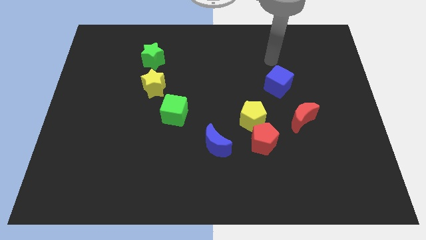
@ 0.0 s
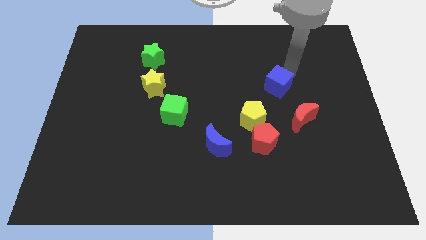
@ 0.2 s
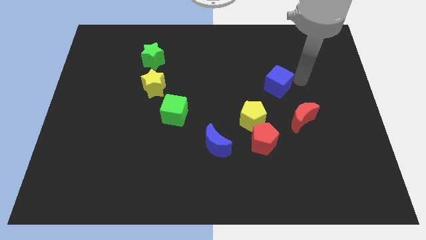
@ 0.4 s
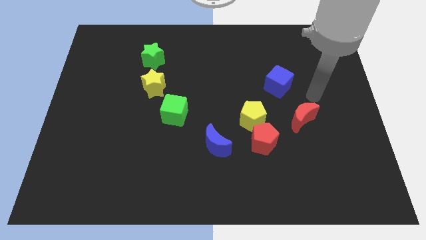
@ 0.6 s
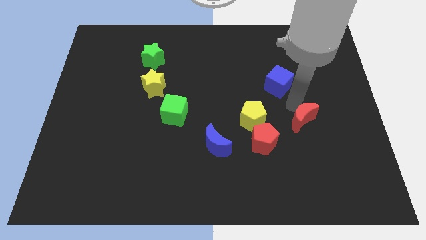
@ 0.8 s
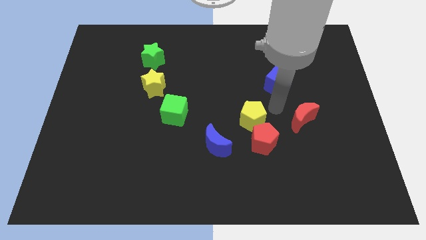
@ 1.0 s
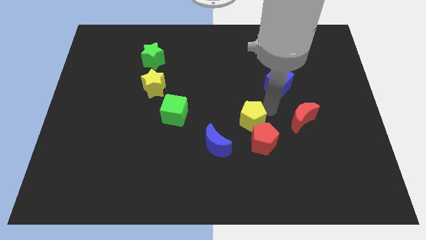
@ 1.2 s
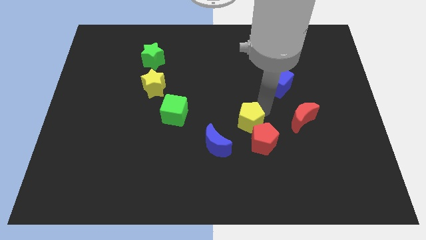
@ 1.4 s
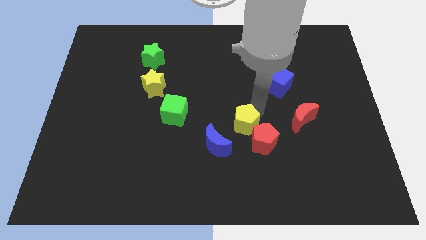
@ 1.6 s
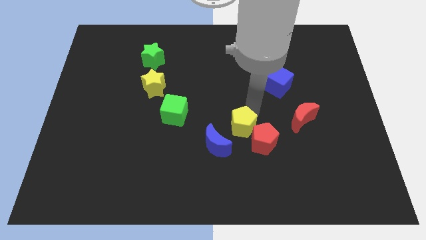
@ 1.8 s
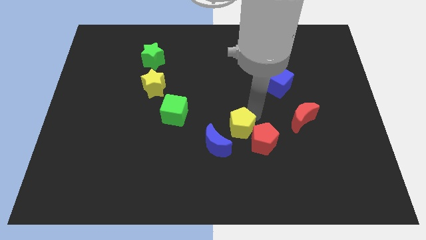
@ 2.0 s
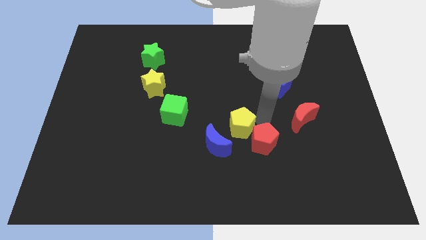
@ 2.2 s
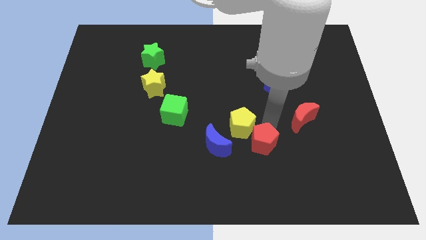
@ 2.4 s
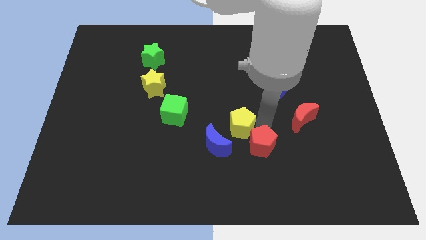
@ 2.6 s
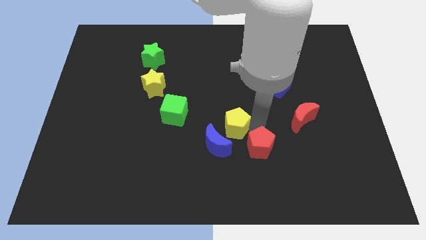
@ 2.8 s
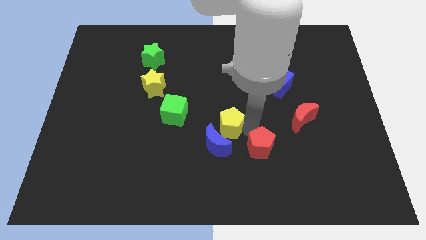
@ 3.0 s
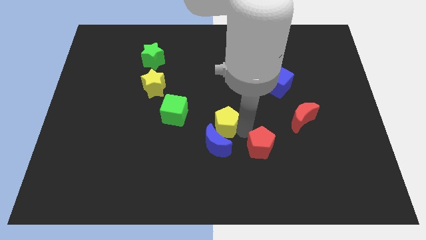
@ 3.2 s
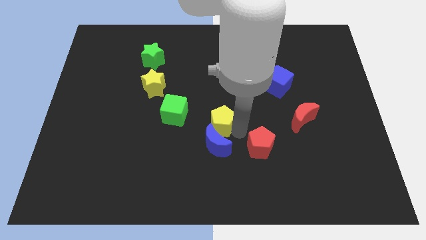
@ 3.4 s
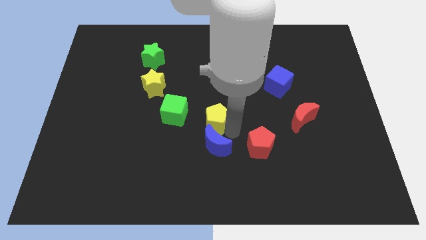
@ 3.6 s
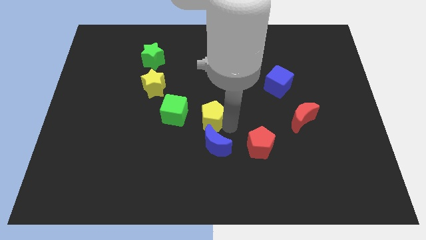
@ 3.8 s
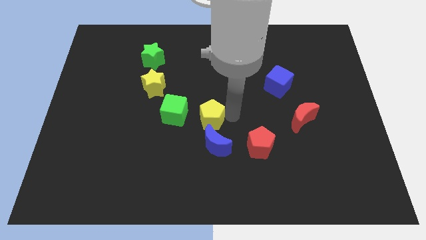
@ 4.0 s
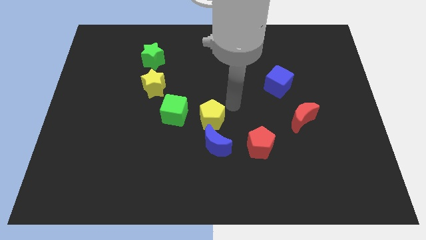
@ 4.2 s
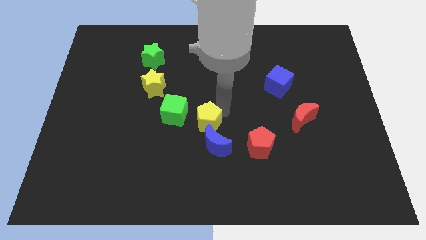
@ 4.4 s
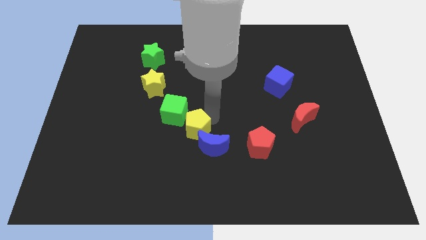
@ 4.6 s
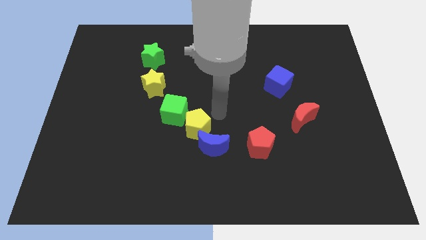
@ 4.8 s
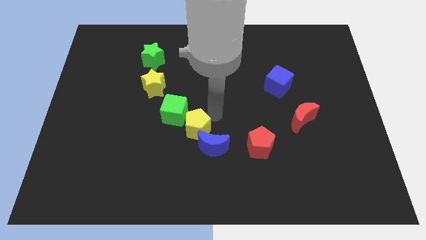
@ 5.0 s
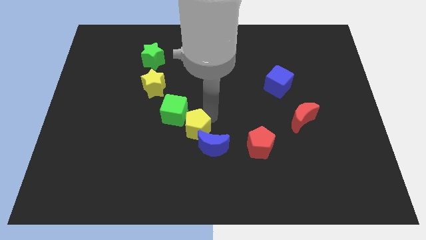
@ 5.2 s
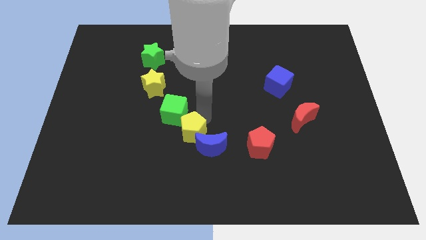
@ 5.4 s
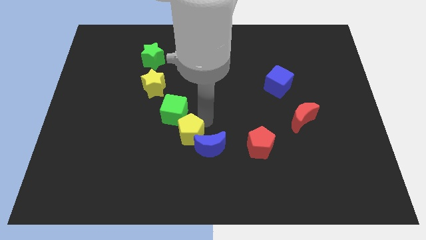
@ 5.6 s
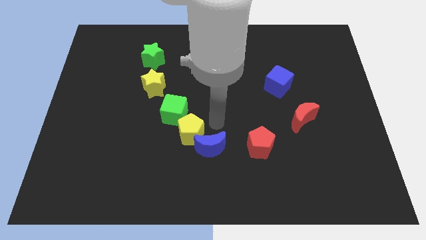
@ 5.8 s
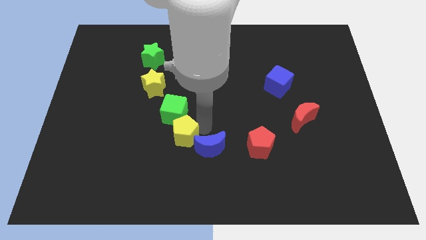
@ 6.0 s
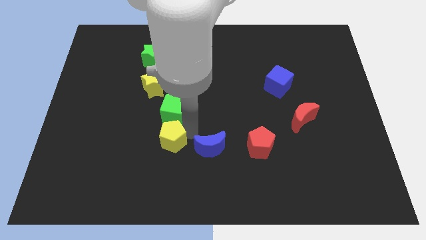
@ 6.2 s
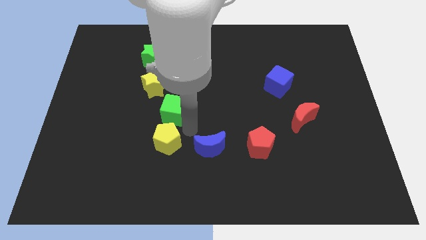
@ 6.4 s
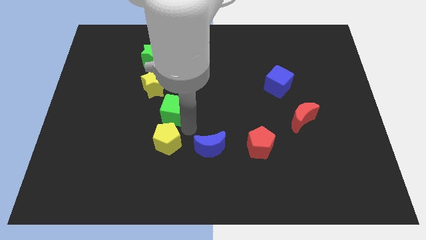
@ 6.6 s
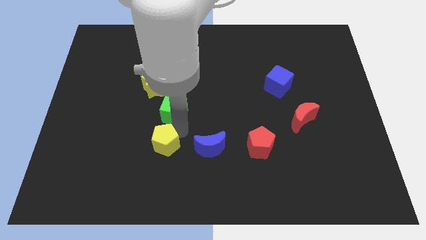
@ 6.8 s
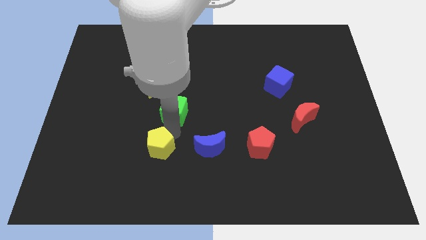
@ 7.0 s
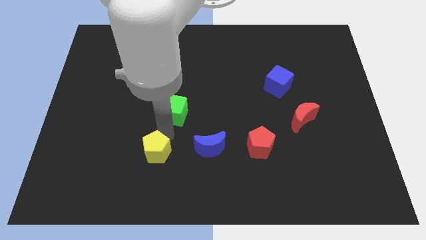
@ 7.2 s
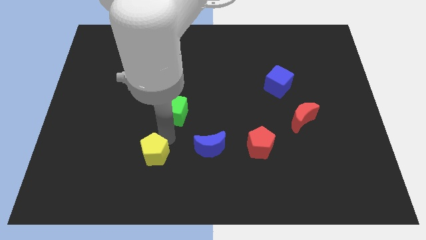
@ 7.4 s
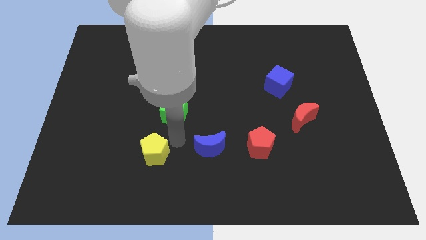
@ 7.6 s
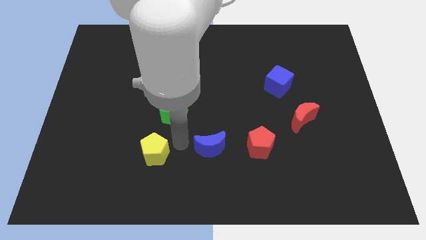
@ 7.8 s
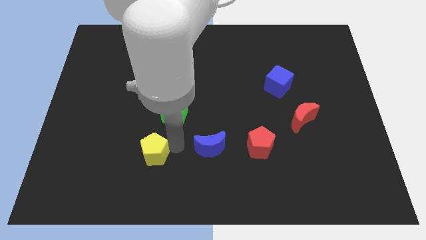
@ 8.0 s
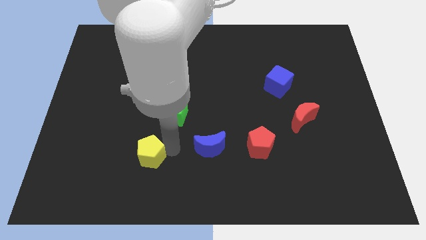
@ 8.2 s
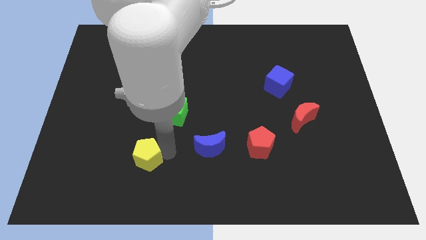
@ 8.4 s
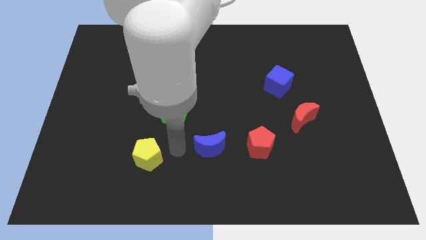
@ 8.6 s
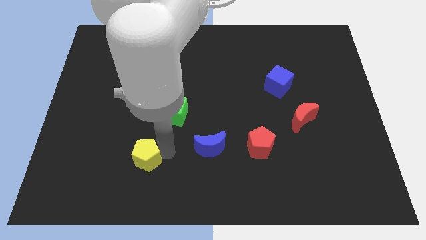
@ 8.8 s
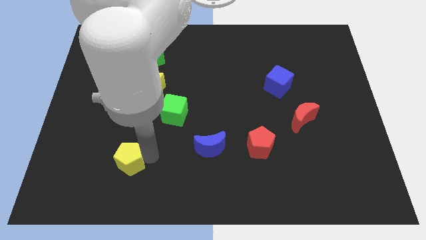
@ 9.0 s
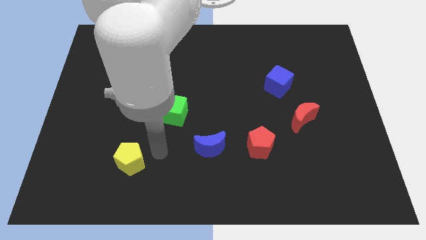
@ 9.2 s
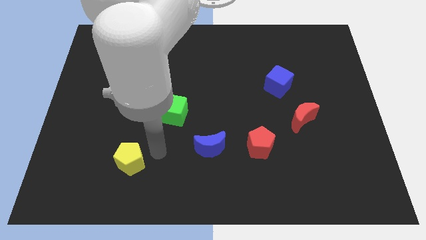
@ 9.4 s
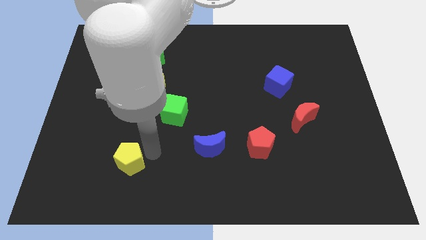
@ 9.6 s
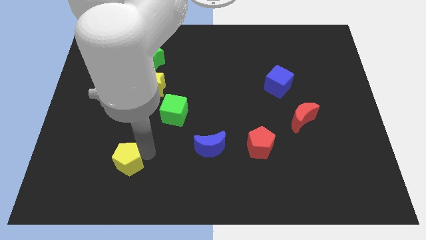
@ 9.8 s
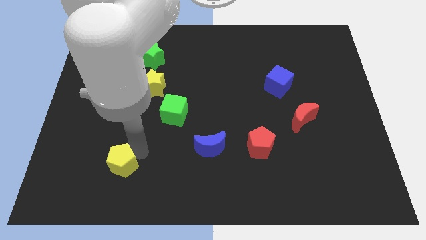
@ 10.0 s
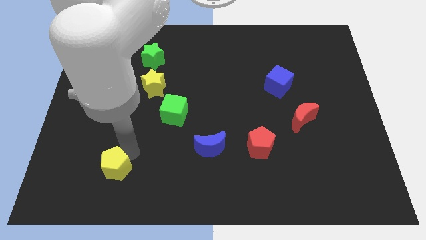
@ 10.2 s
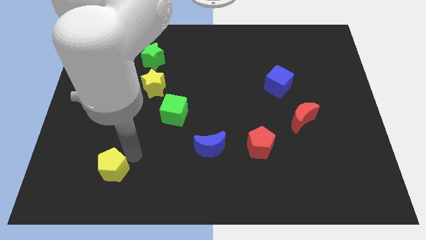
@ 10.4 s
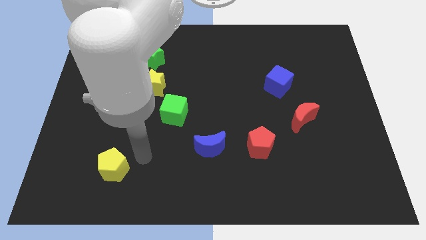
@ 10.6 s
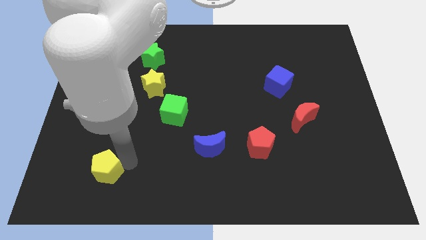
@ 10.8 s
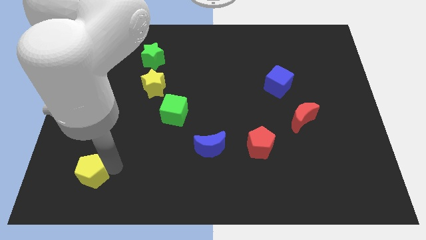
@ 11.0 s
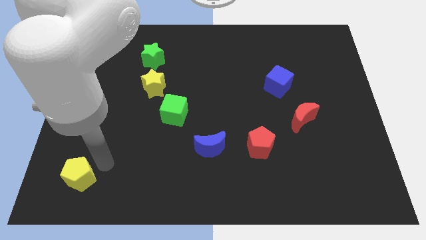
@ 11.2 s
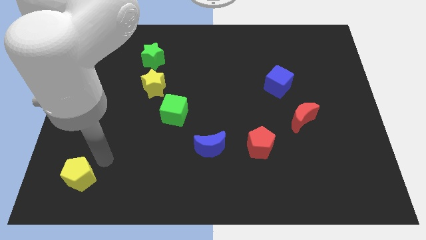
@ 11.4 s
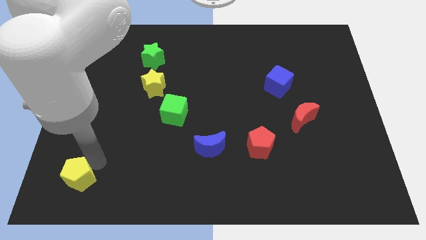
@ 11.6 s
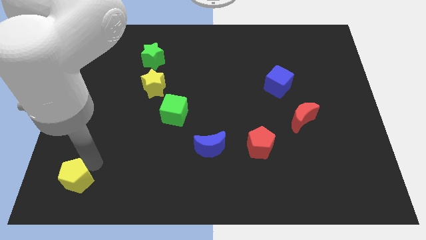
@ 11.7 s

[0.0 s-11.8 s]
put the yellow pentagon to the bottom left
